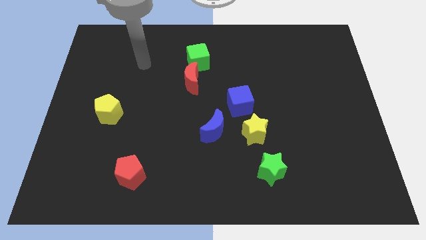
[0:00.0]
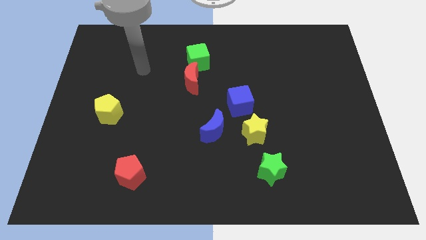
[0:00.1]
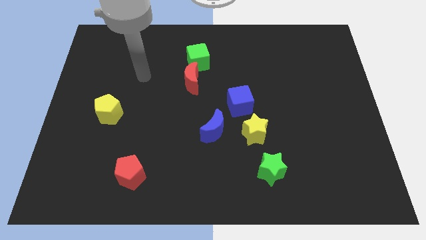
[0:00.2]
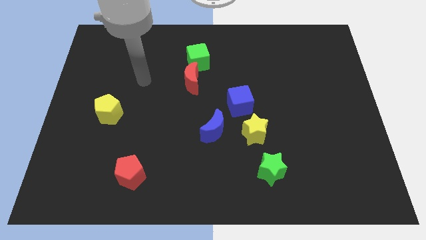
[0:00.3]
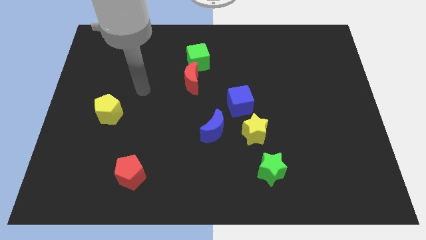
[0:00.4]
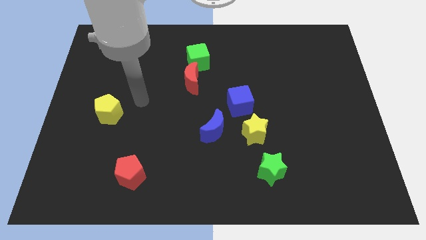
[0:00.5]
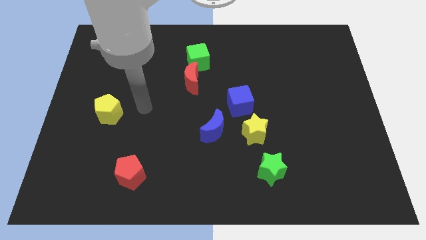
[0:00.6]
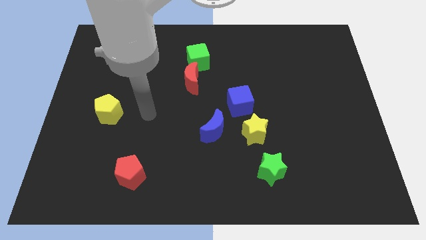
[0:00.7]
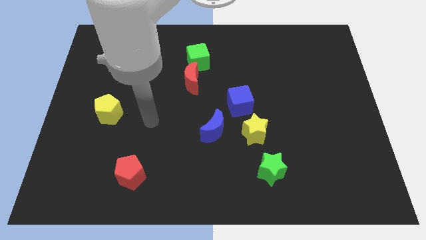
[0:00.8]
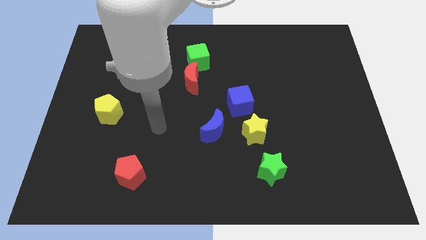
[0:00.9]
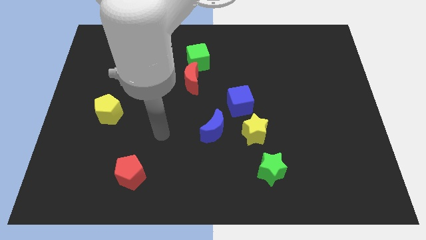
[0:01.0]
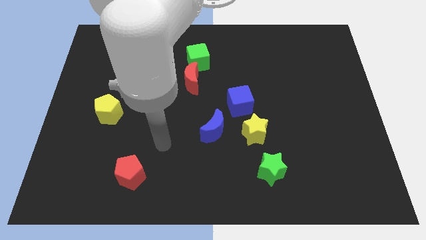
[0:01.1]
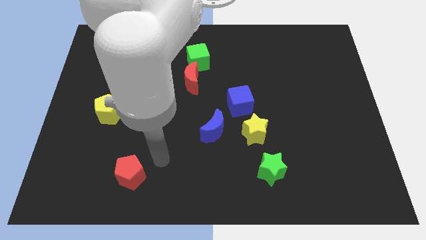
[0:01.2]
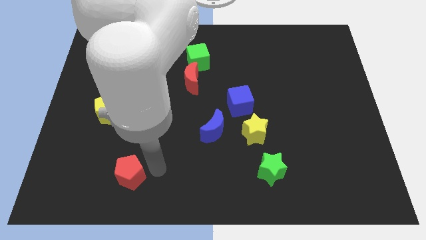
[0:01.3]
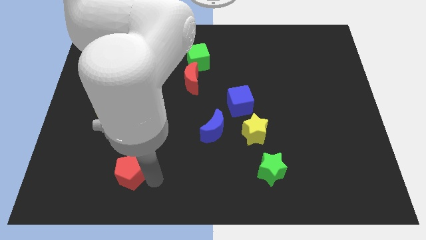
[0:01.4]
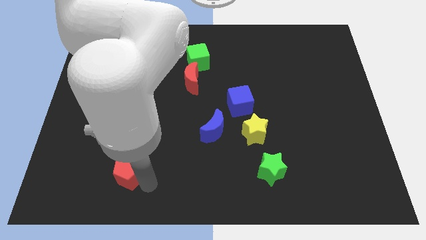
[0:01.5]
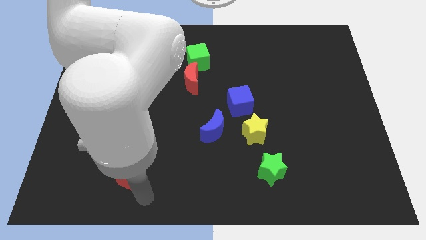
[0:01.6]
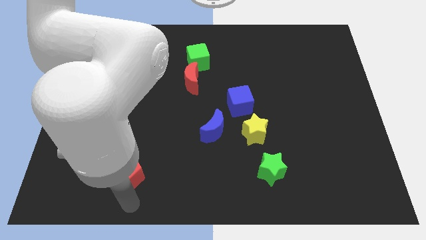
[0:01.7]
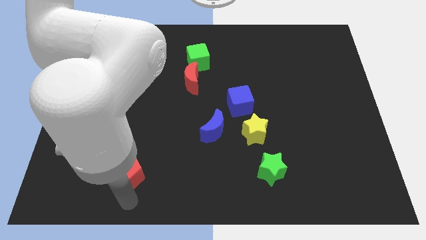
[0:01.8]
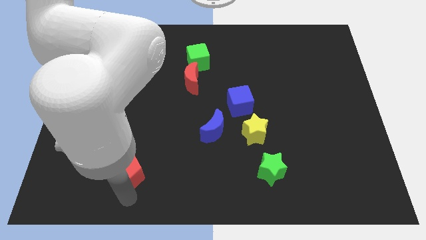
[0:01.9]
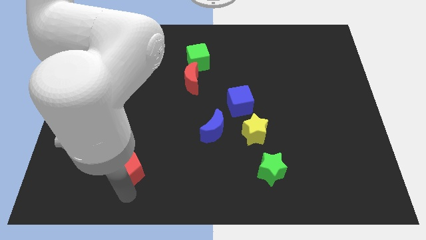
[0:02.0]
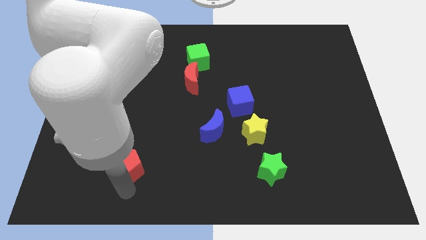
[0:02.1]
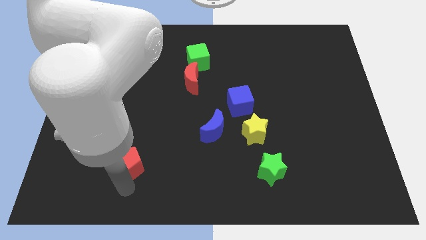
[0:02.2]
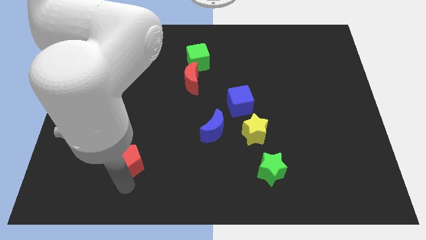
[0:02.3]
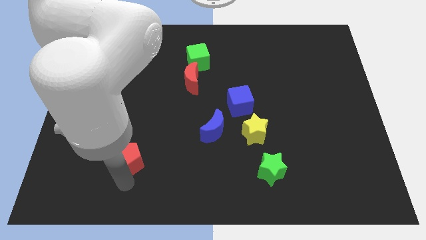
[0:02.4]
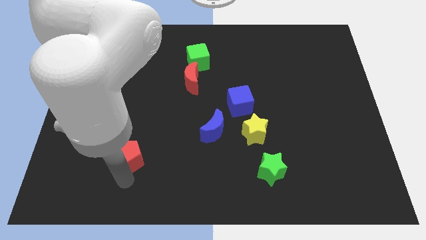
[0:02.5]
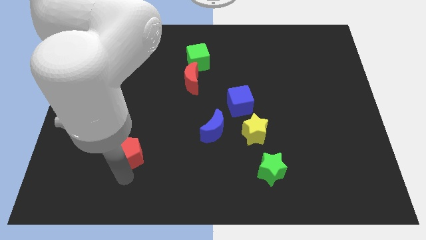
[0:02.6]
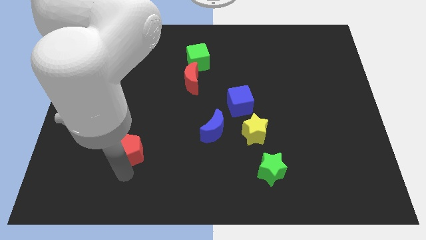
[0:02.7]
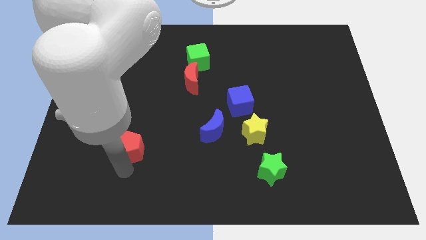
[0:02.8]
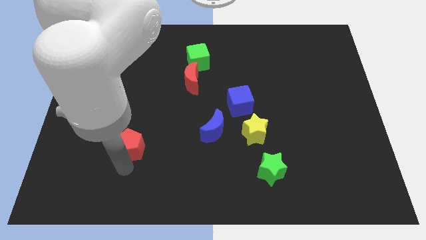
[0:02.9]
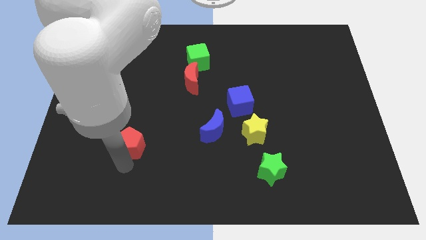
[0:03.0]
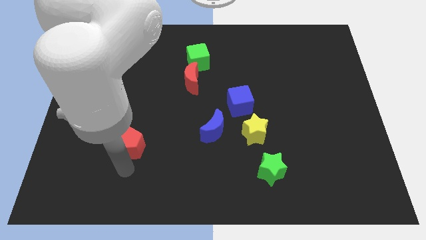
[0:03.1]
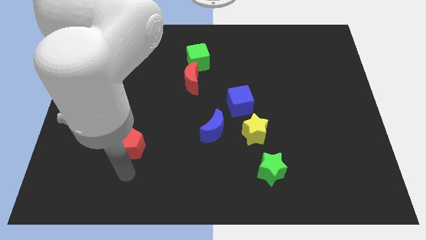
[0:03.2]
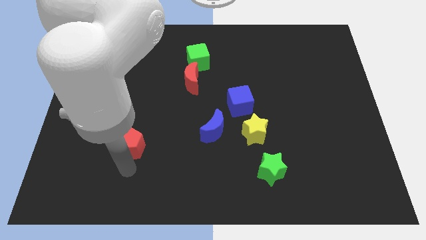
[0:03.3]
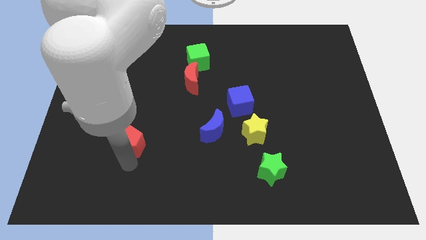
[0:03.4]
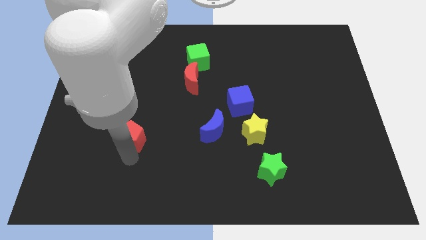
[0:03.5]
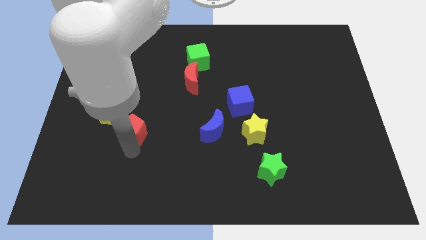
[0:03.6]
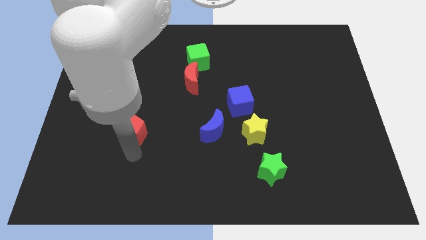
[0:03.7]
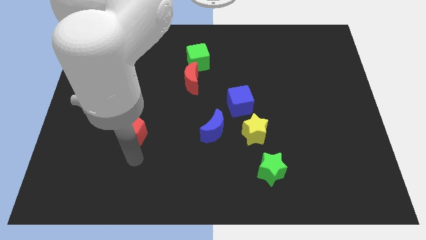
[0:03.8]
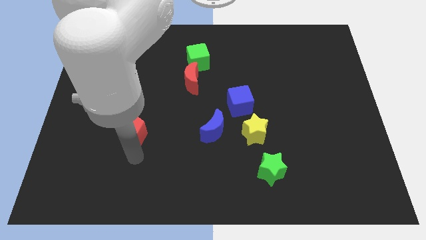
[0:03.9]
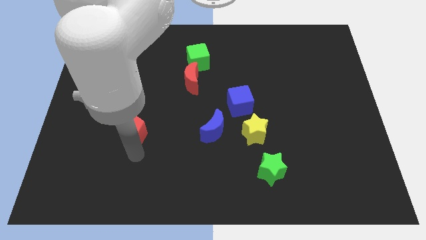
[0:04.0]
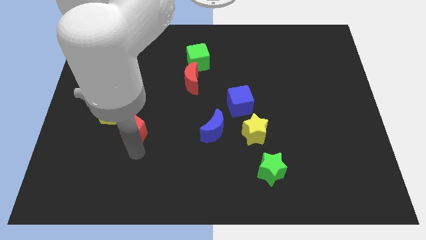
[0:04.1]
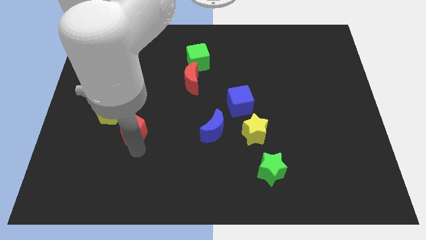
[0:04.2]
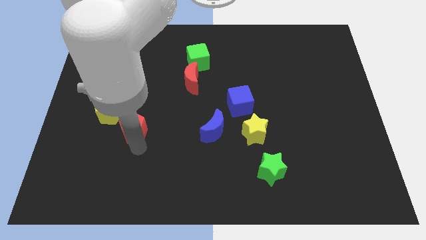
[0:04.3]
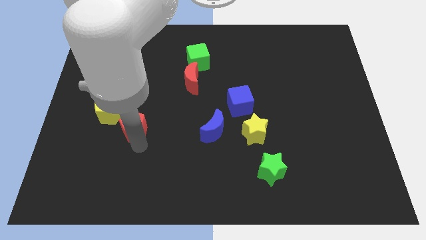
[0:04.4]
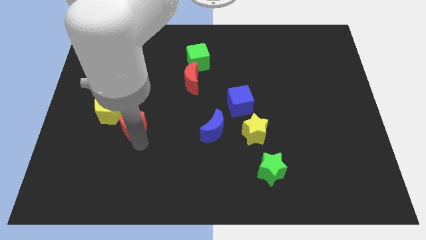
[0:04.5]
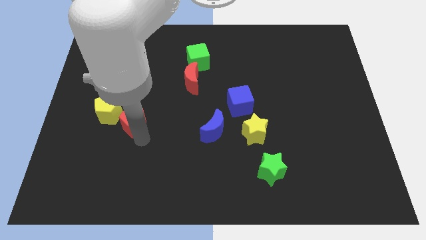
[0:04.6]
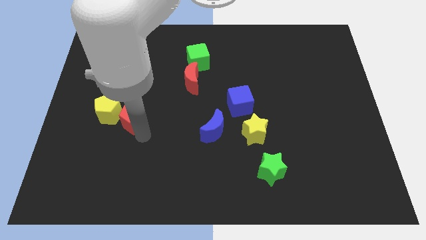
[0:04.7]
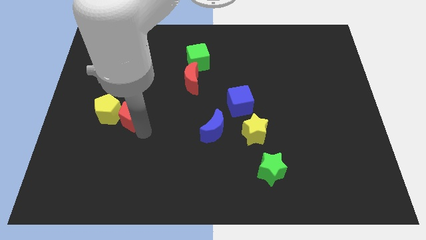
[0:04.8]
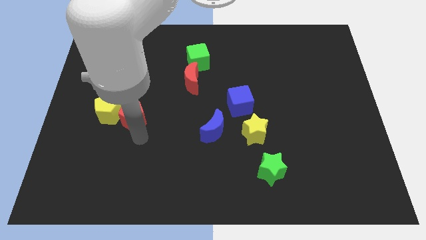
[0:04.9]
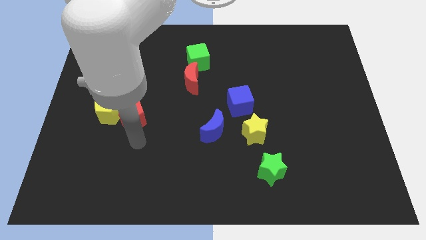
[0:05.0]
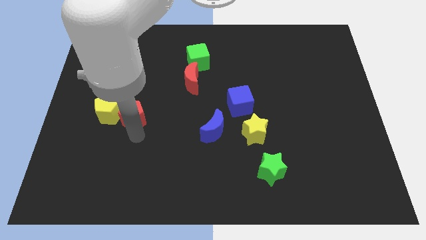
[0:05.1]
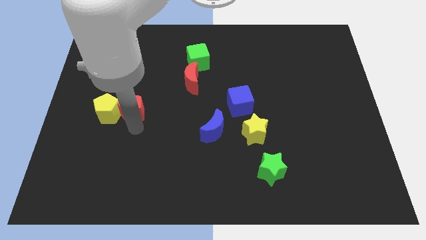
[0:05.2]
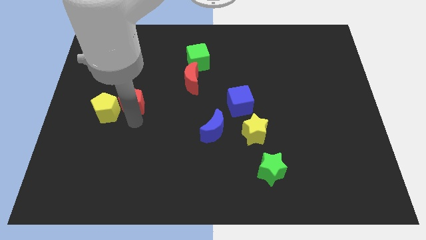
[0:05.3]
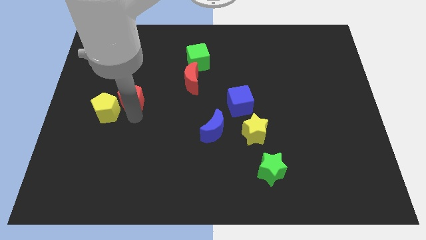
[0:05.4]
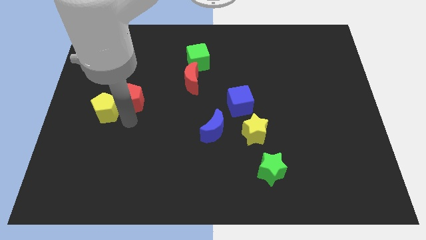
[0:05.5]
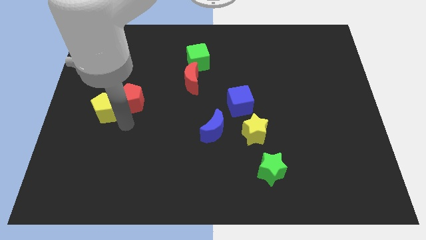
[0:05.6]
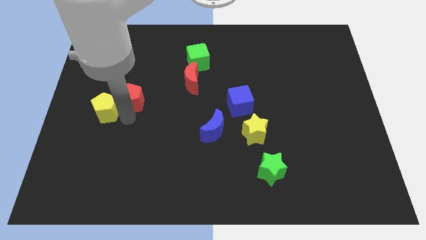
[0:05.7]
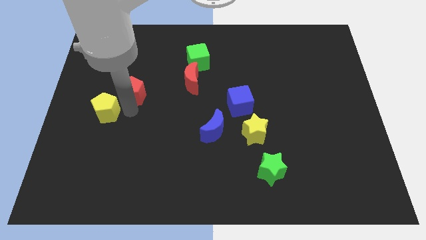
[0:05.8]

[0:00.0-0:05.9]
slide the red pentagon up

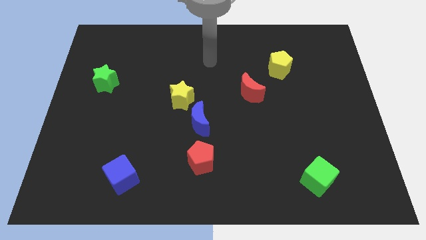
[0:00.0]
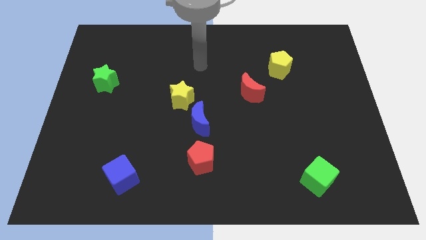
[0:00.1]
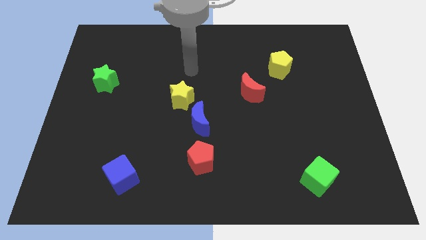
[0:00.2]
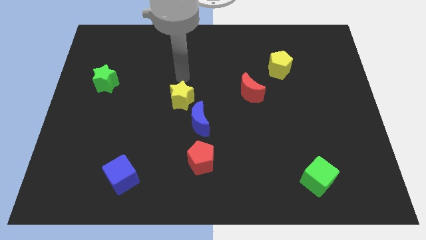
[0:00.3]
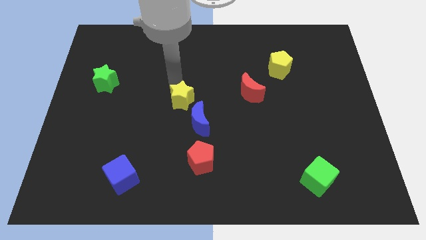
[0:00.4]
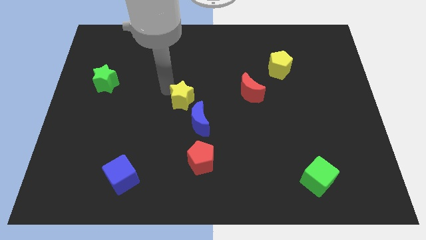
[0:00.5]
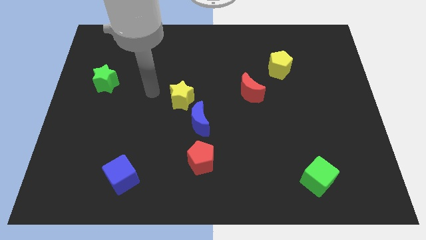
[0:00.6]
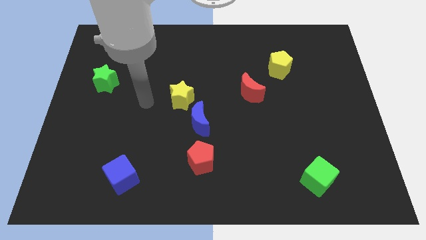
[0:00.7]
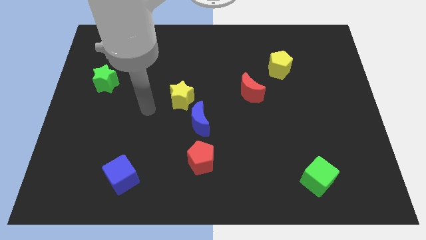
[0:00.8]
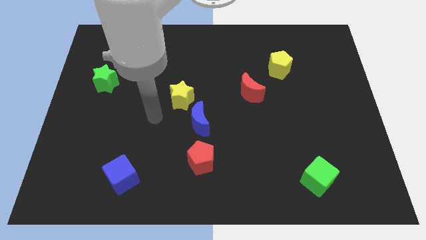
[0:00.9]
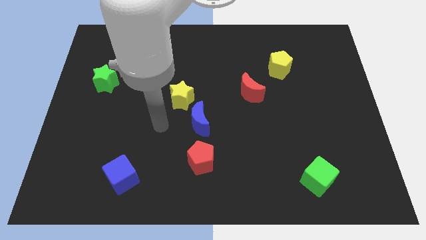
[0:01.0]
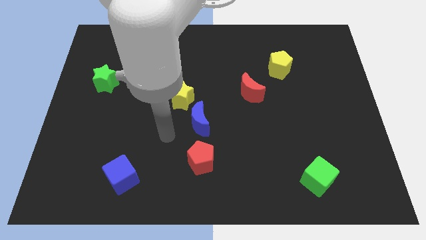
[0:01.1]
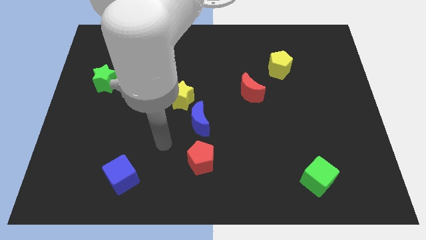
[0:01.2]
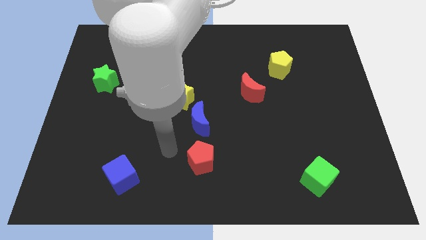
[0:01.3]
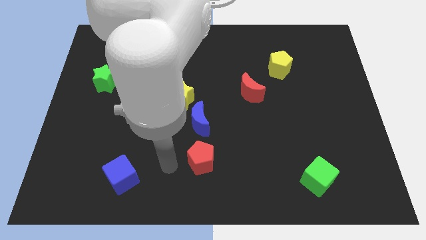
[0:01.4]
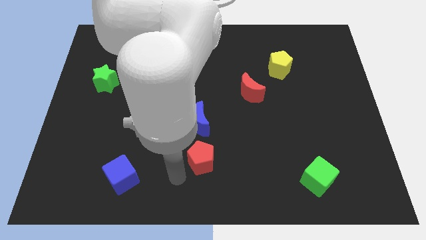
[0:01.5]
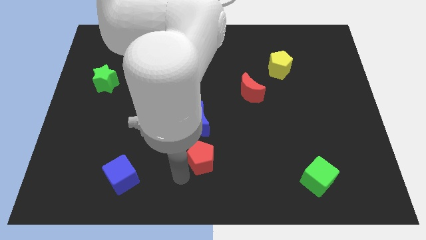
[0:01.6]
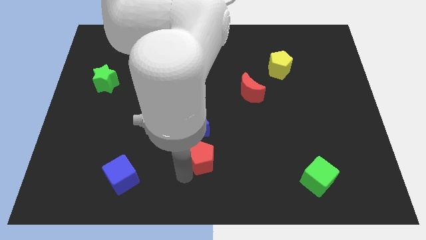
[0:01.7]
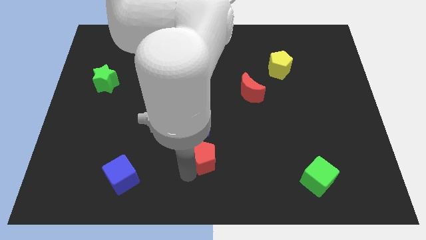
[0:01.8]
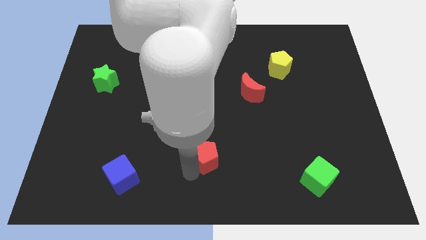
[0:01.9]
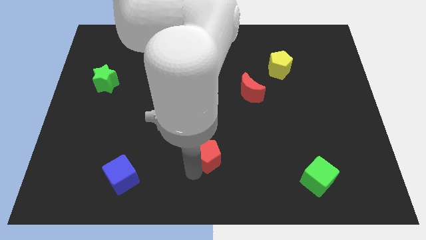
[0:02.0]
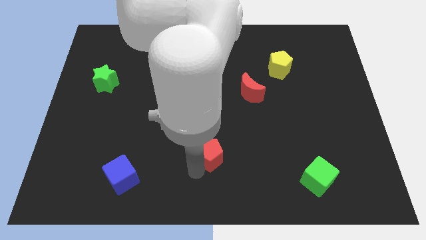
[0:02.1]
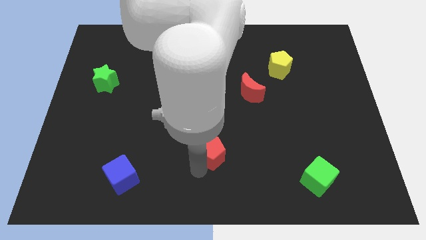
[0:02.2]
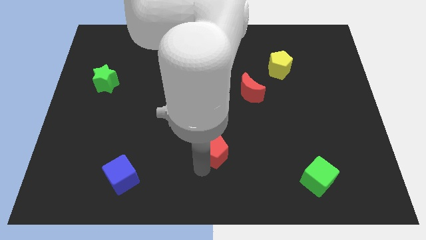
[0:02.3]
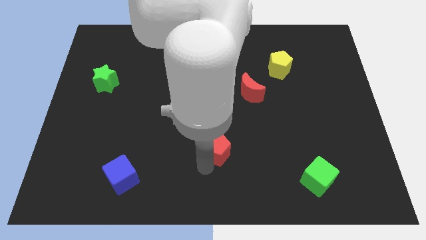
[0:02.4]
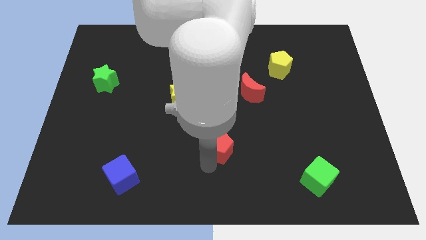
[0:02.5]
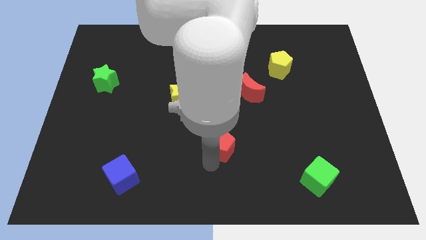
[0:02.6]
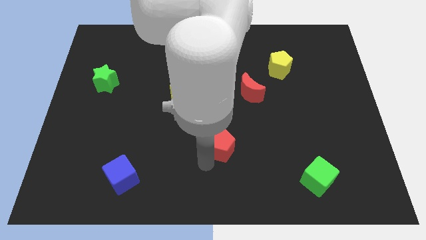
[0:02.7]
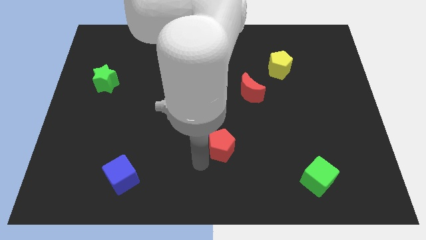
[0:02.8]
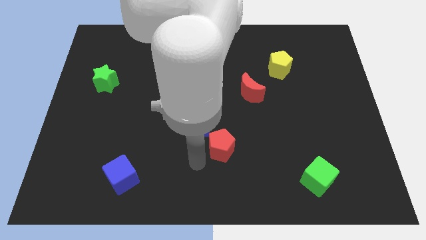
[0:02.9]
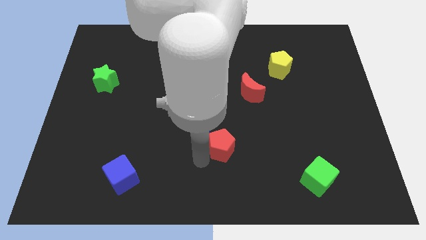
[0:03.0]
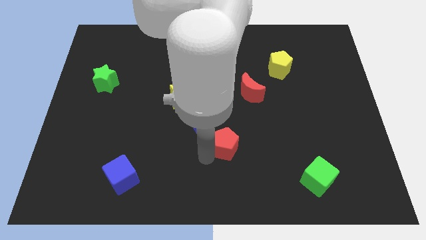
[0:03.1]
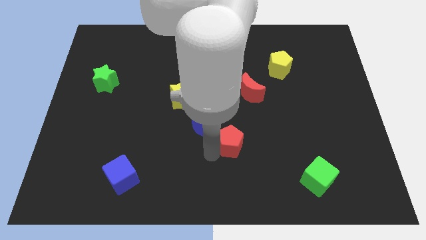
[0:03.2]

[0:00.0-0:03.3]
slightly slide the red pentagon up and then to the right
